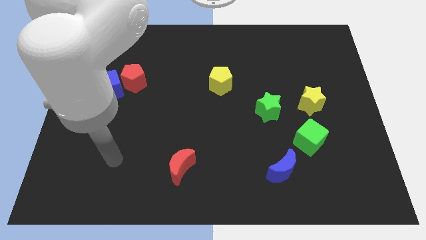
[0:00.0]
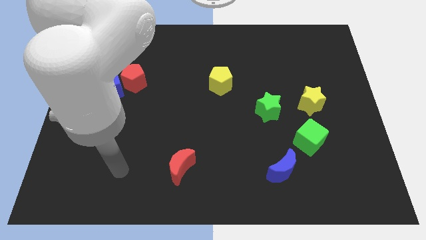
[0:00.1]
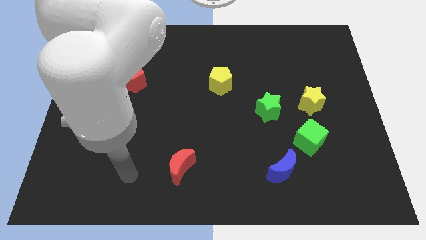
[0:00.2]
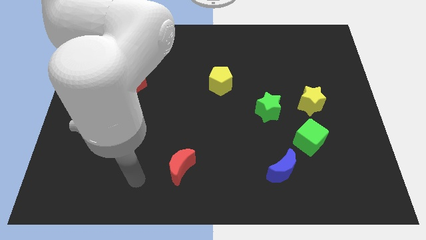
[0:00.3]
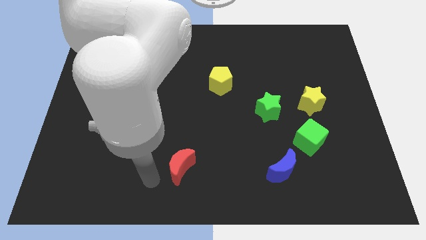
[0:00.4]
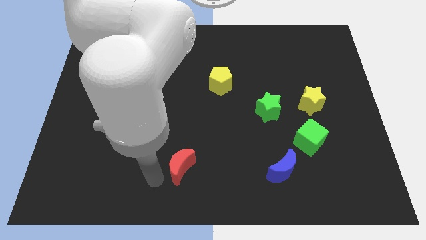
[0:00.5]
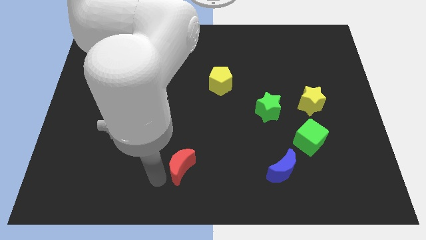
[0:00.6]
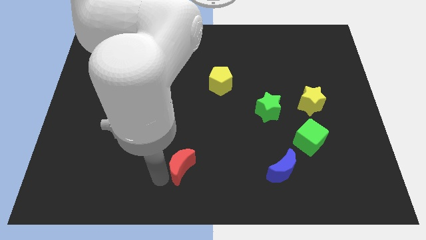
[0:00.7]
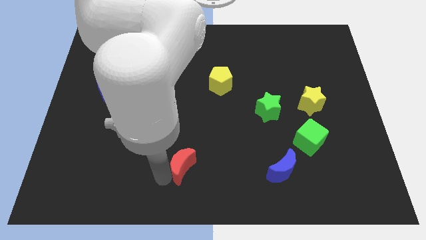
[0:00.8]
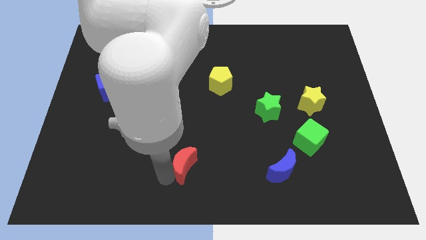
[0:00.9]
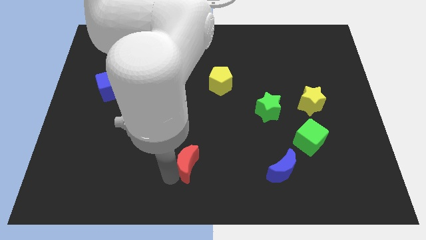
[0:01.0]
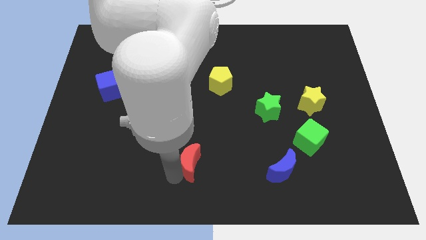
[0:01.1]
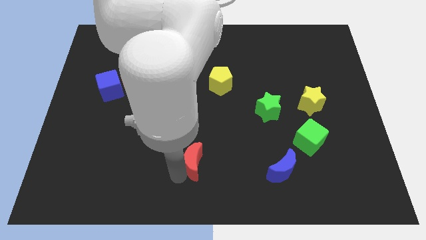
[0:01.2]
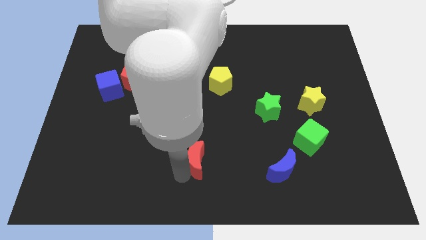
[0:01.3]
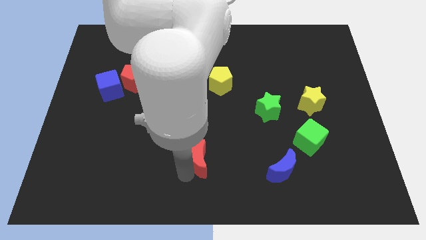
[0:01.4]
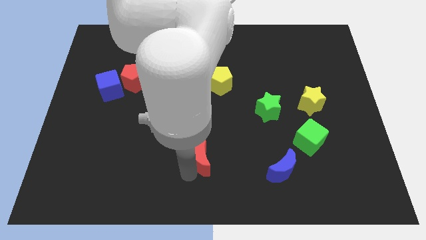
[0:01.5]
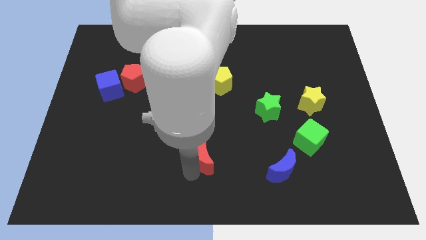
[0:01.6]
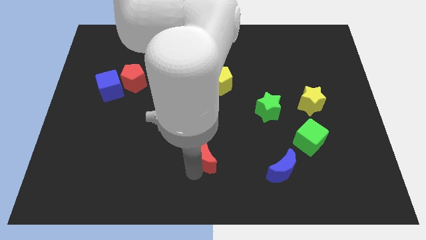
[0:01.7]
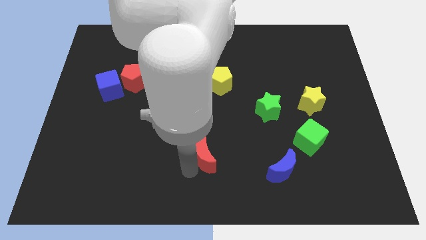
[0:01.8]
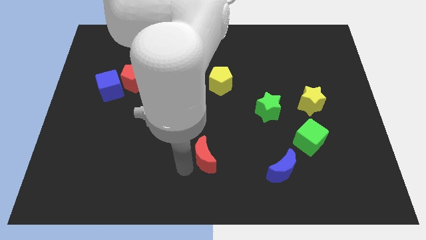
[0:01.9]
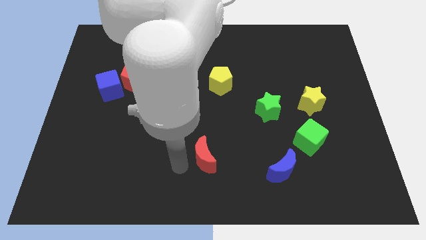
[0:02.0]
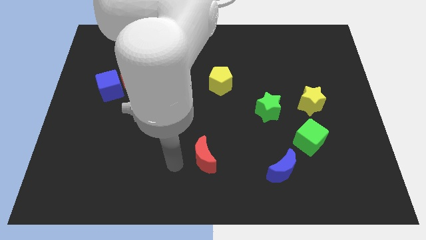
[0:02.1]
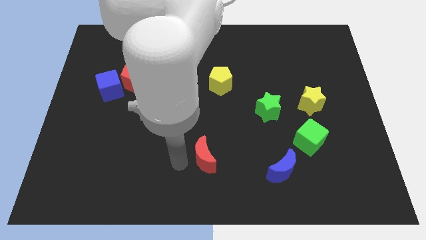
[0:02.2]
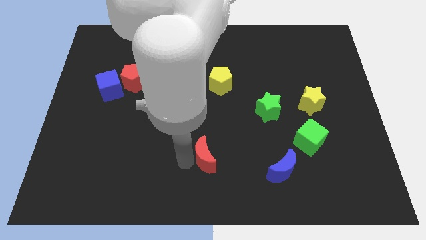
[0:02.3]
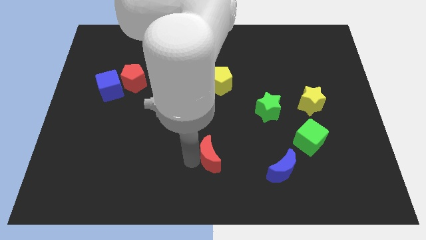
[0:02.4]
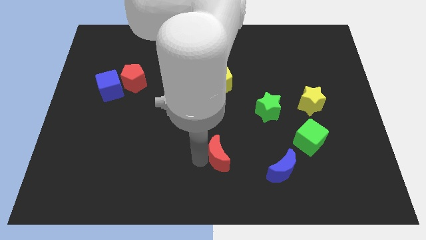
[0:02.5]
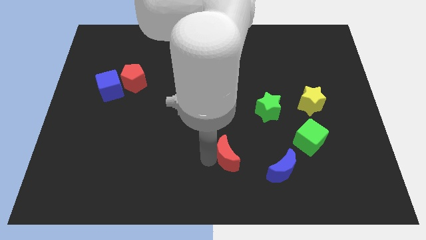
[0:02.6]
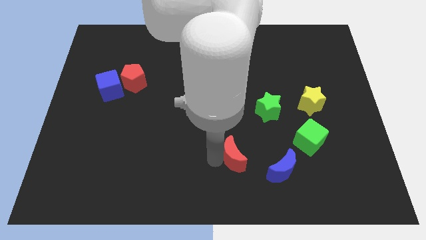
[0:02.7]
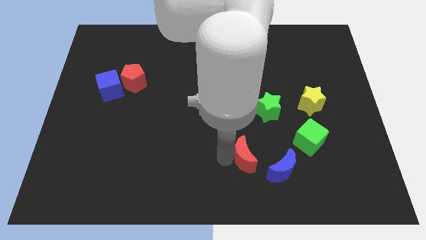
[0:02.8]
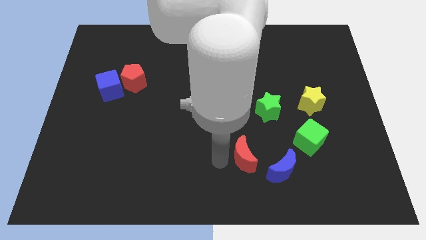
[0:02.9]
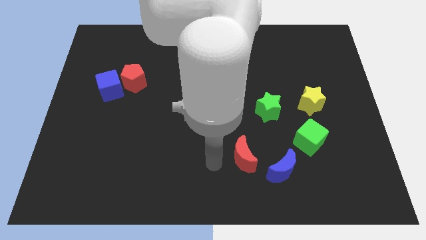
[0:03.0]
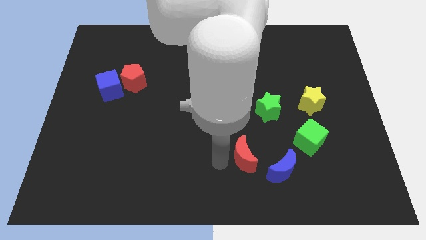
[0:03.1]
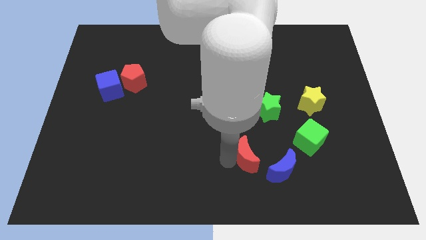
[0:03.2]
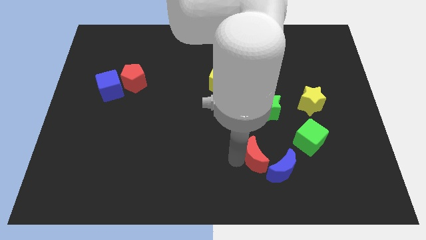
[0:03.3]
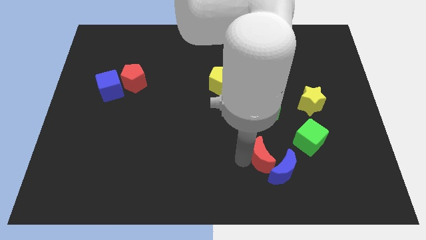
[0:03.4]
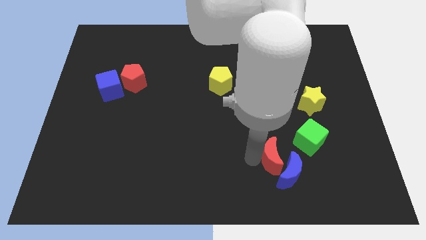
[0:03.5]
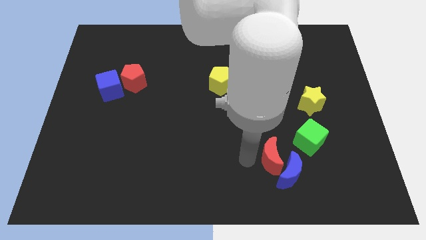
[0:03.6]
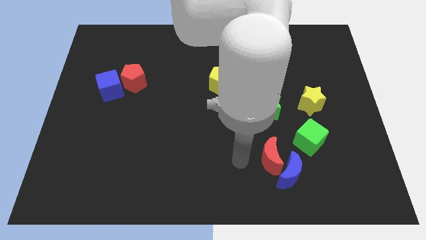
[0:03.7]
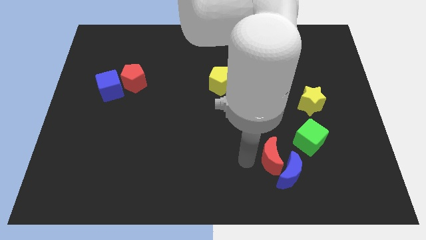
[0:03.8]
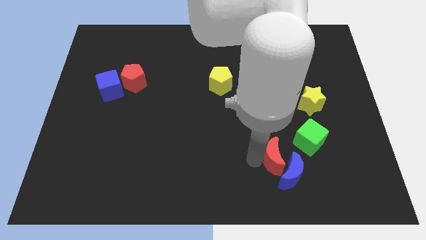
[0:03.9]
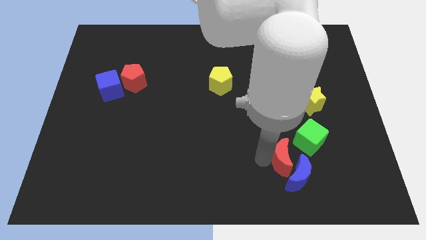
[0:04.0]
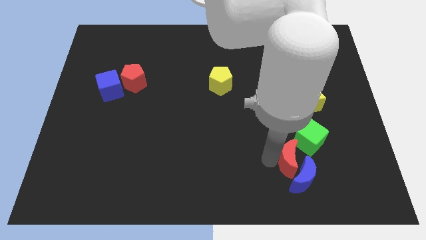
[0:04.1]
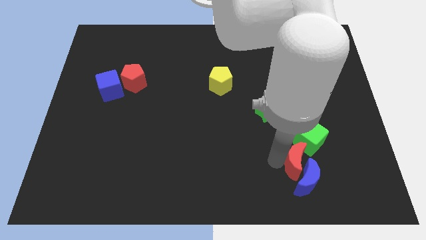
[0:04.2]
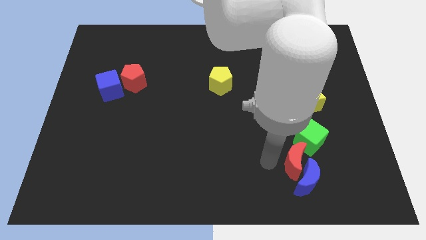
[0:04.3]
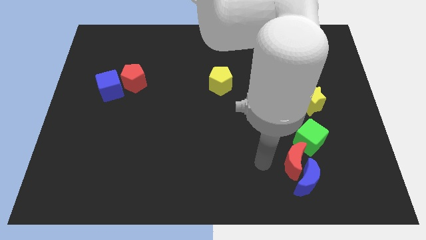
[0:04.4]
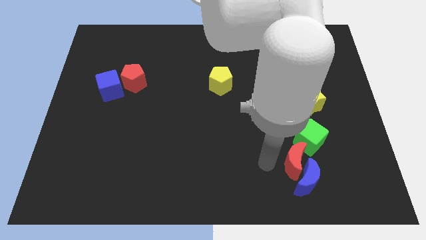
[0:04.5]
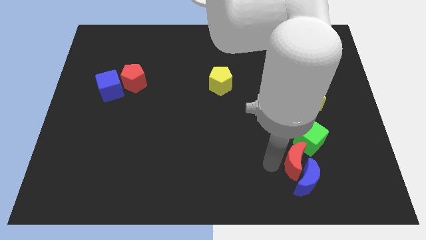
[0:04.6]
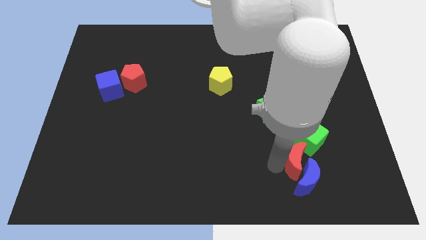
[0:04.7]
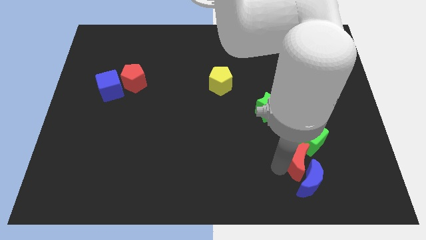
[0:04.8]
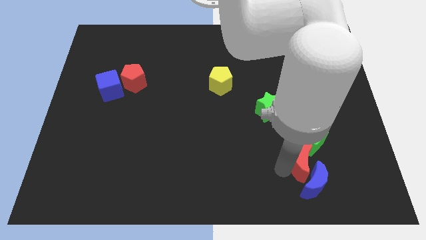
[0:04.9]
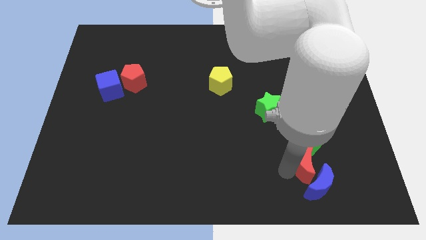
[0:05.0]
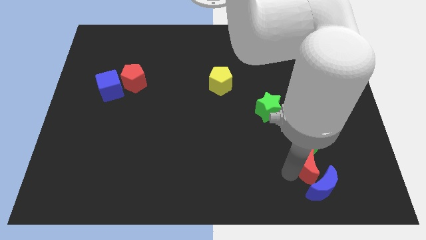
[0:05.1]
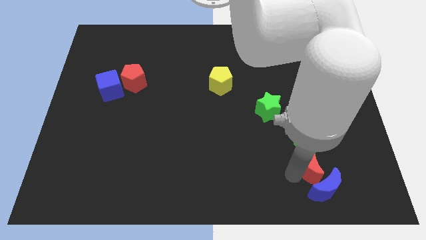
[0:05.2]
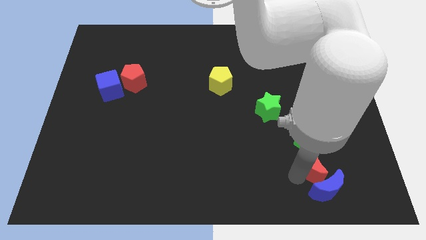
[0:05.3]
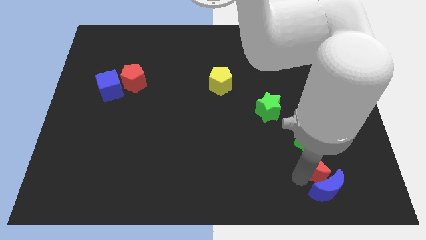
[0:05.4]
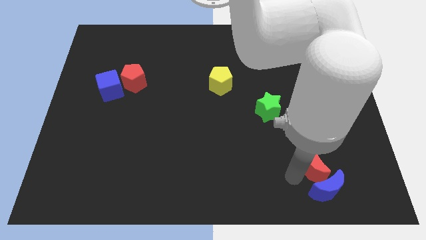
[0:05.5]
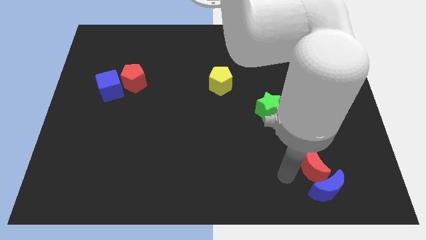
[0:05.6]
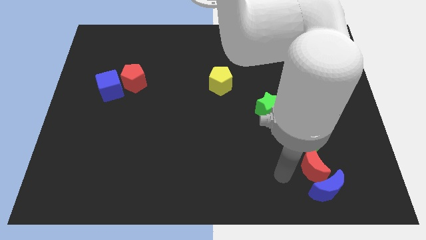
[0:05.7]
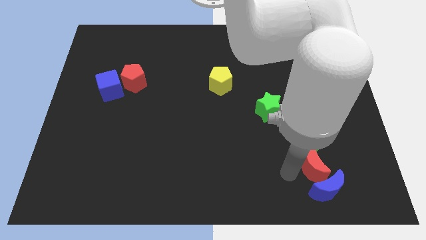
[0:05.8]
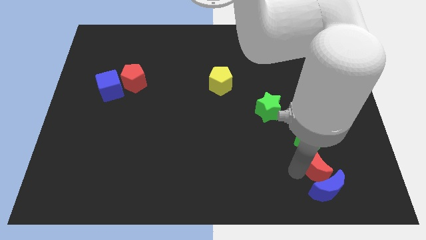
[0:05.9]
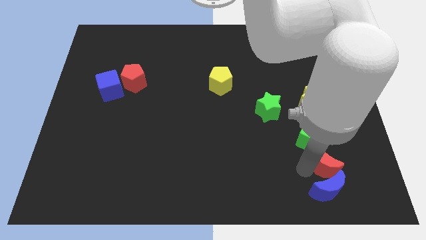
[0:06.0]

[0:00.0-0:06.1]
put the red moon to the bottom right side of the green cube

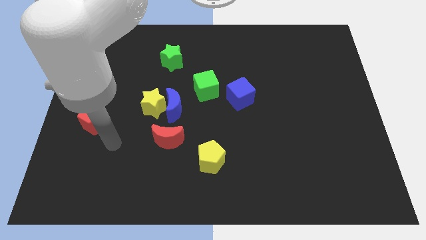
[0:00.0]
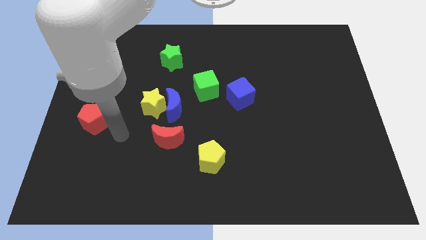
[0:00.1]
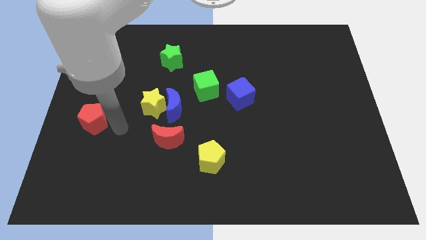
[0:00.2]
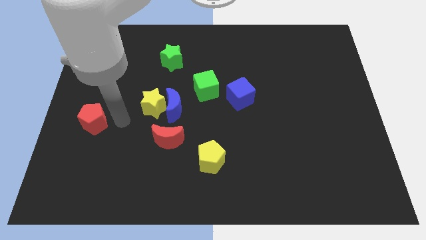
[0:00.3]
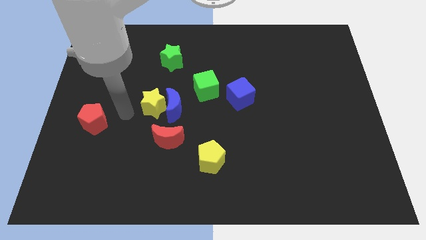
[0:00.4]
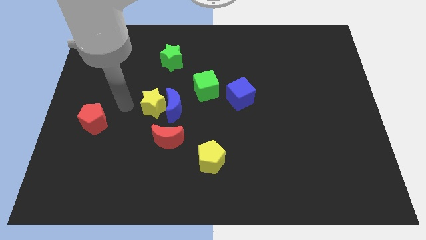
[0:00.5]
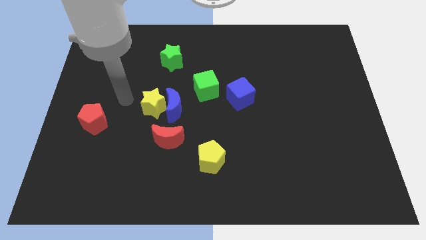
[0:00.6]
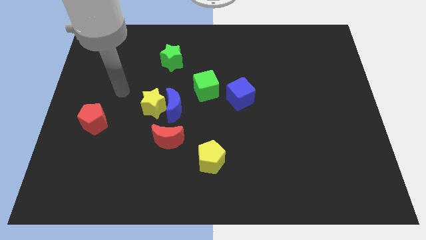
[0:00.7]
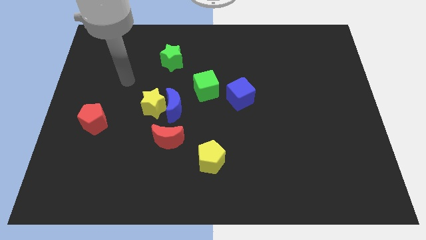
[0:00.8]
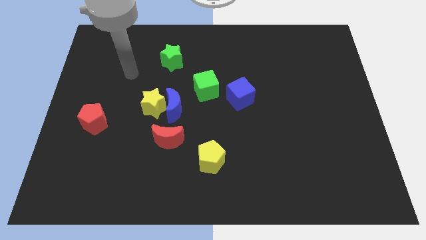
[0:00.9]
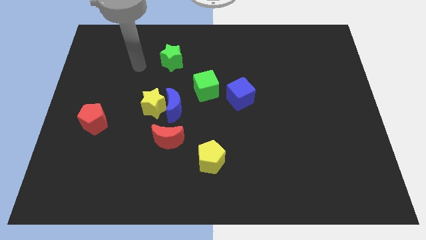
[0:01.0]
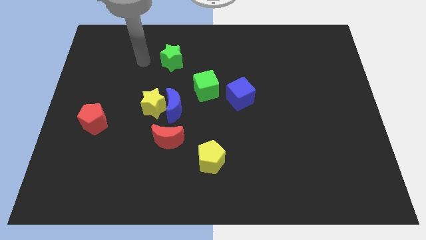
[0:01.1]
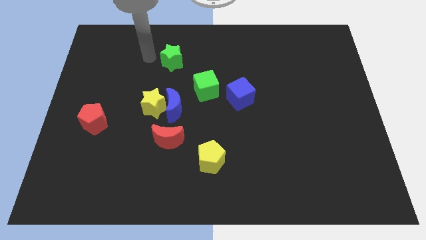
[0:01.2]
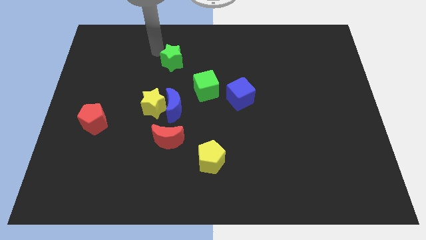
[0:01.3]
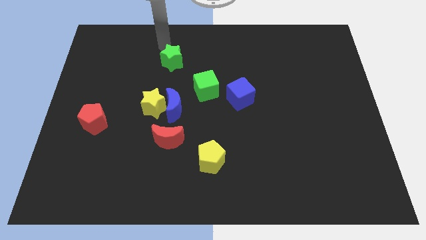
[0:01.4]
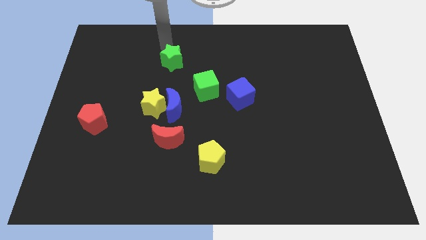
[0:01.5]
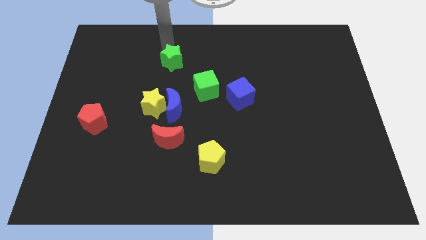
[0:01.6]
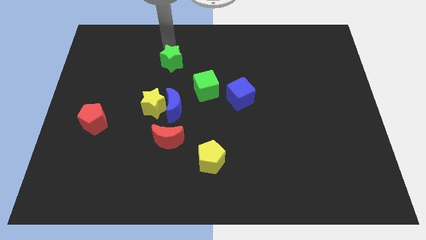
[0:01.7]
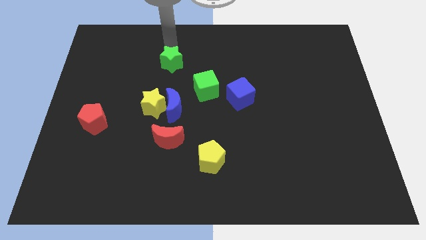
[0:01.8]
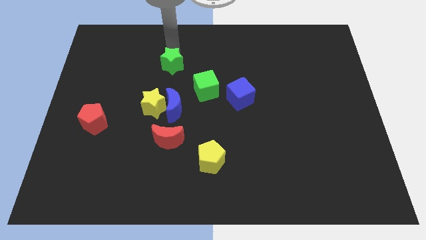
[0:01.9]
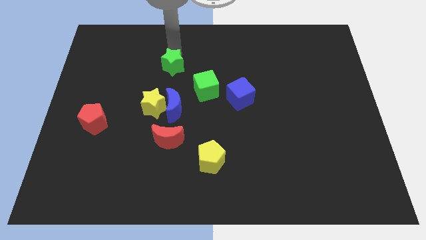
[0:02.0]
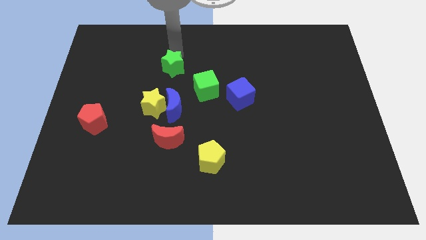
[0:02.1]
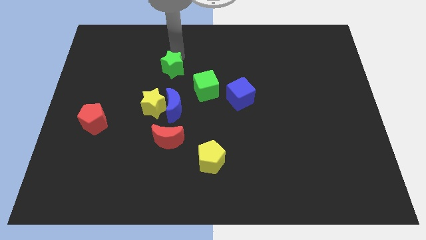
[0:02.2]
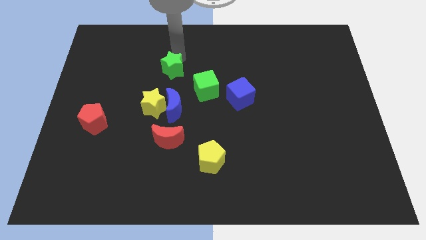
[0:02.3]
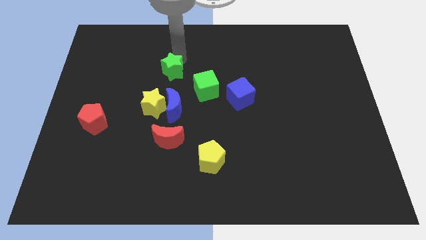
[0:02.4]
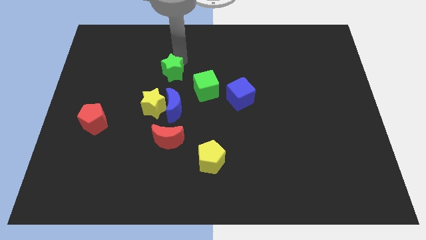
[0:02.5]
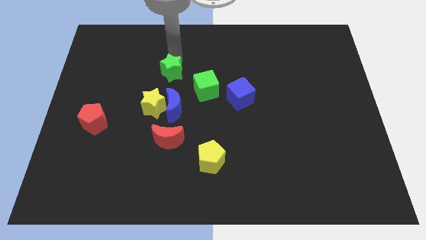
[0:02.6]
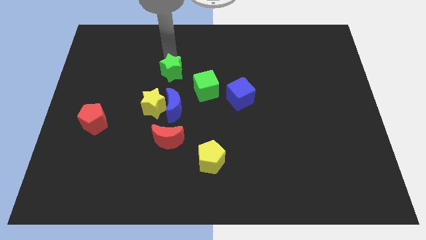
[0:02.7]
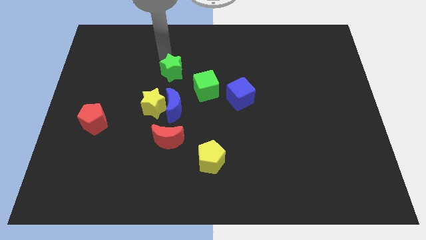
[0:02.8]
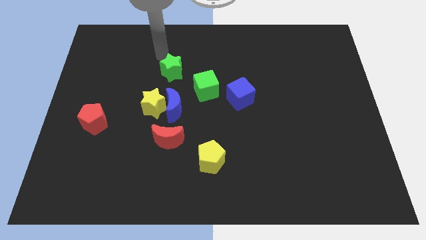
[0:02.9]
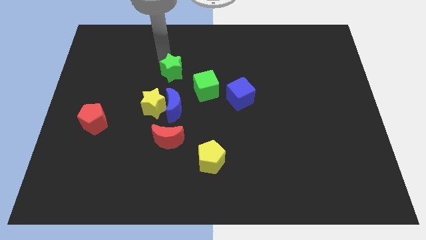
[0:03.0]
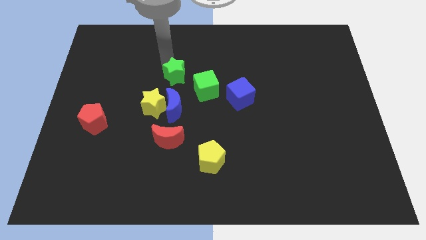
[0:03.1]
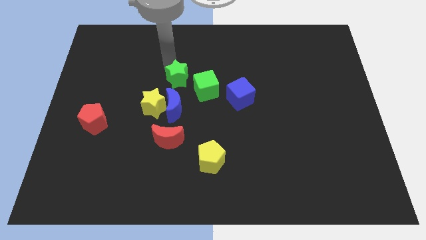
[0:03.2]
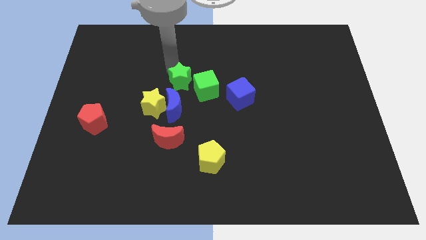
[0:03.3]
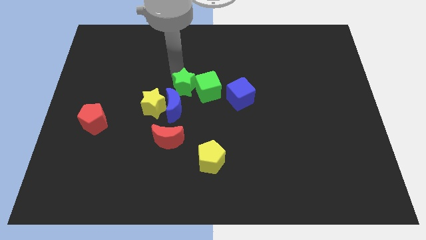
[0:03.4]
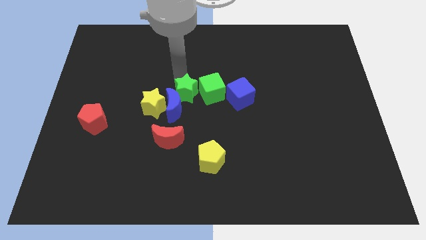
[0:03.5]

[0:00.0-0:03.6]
put the green star right of the yellow star
